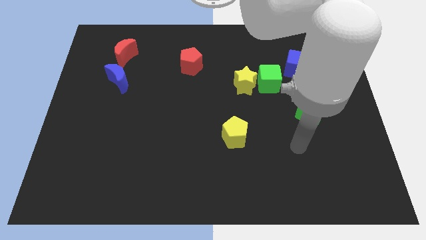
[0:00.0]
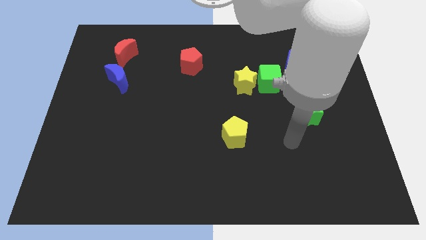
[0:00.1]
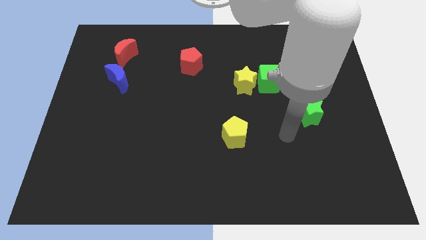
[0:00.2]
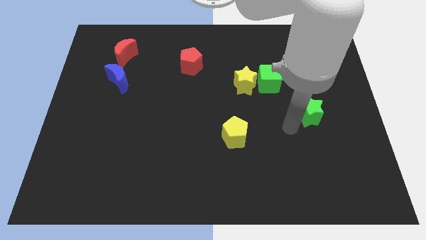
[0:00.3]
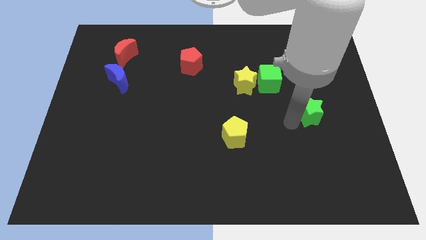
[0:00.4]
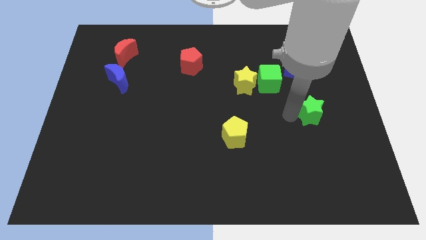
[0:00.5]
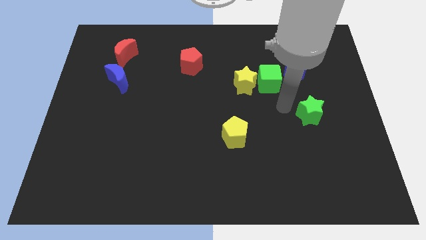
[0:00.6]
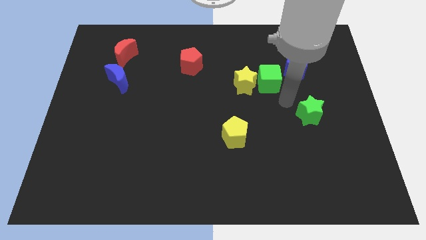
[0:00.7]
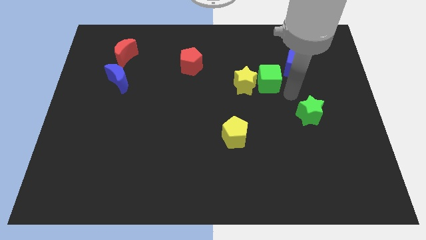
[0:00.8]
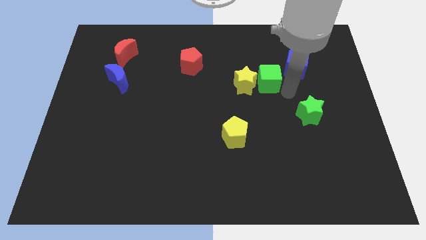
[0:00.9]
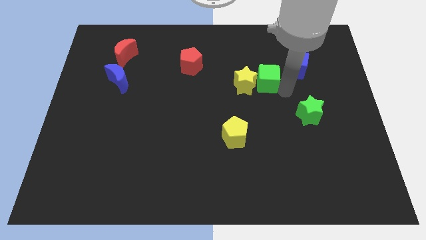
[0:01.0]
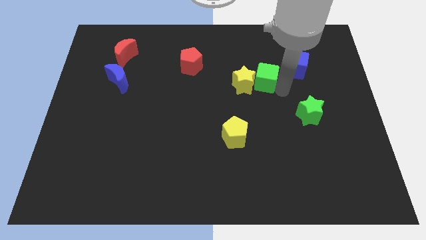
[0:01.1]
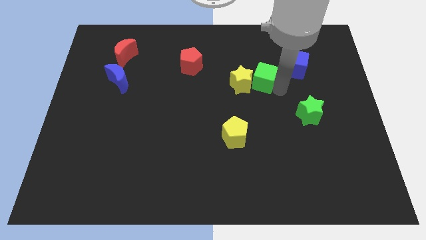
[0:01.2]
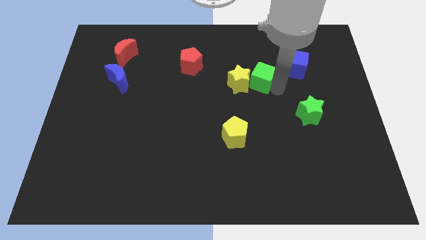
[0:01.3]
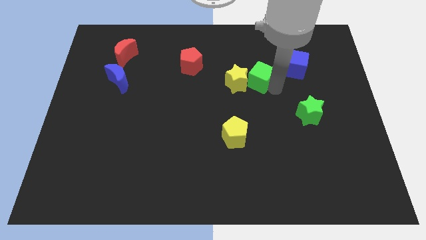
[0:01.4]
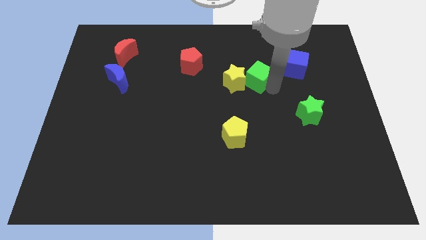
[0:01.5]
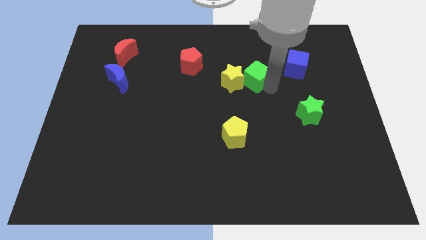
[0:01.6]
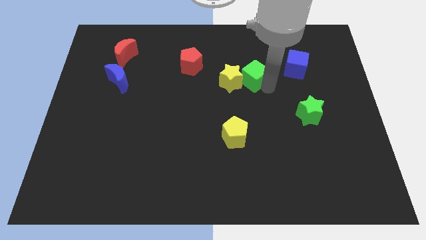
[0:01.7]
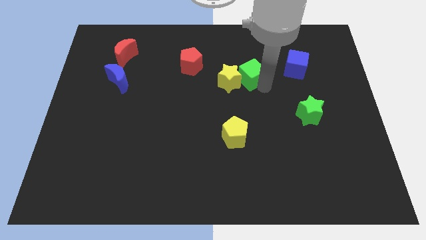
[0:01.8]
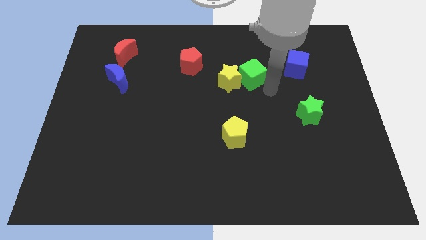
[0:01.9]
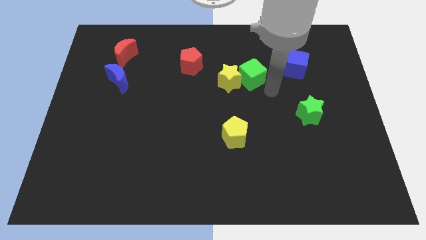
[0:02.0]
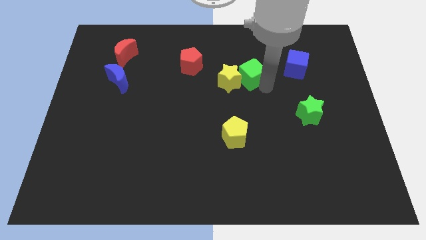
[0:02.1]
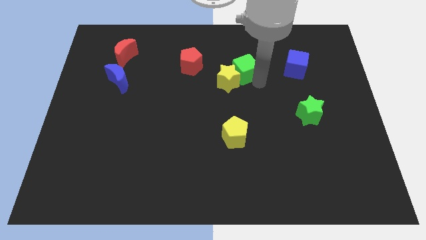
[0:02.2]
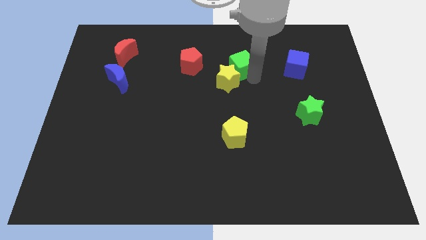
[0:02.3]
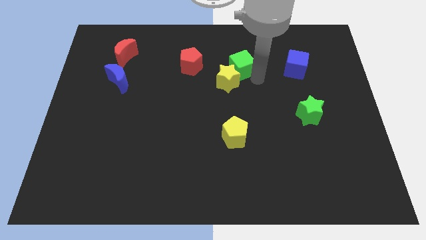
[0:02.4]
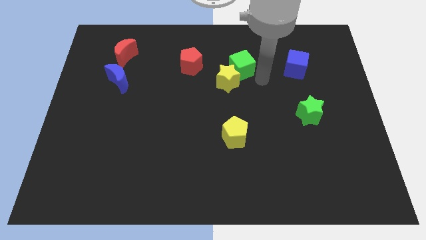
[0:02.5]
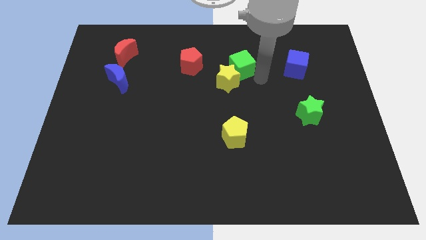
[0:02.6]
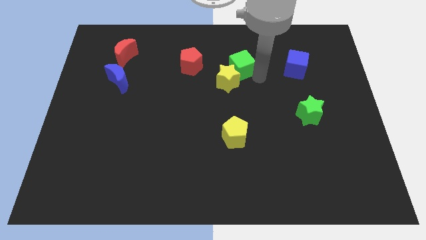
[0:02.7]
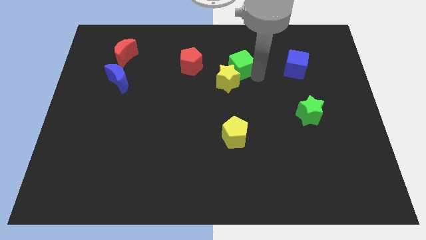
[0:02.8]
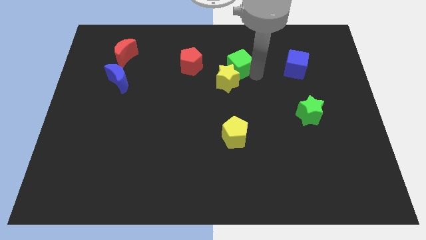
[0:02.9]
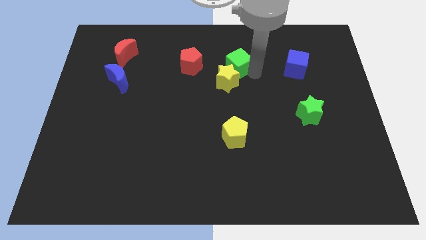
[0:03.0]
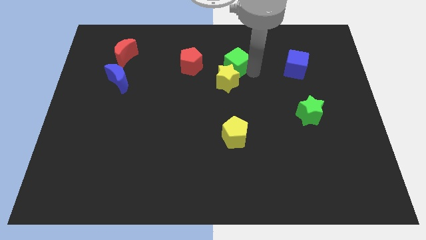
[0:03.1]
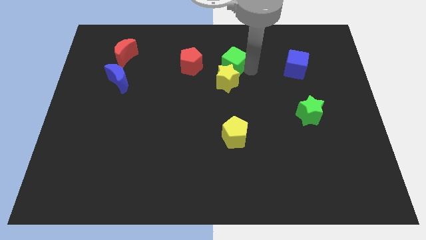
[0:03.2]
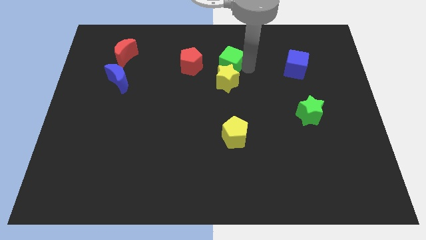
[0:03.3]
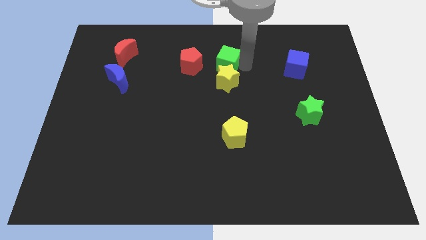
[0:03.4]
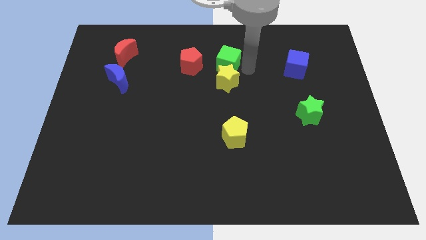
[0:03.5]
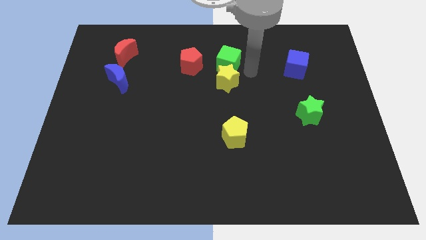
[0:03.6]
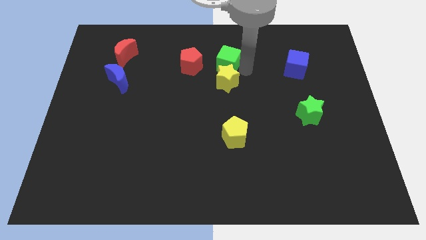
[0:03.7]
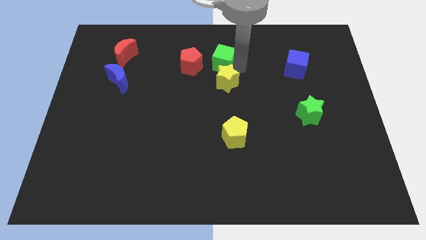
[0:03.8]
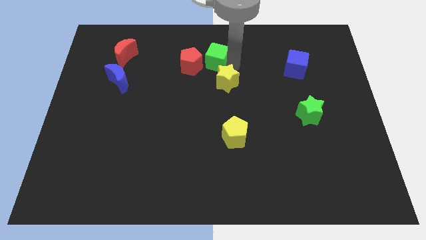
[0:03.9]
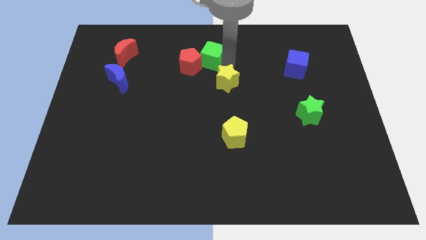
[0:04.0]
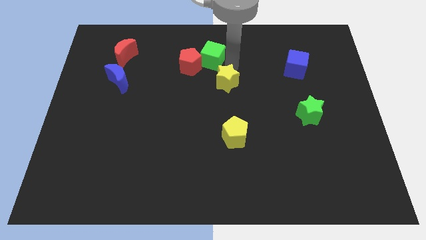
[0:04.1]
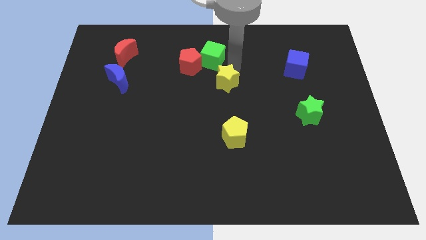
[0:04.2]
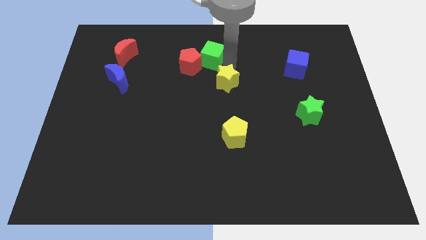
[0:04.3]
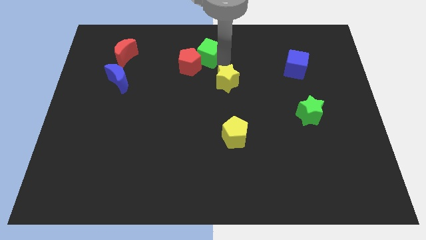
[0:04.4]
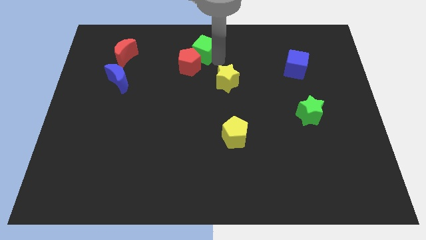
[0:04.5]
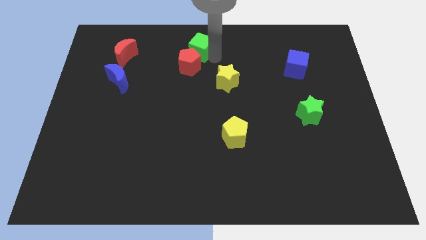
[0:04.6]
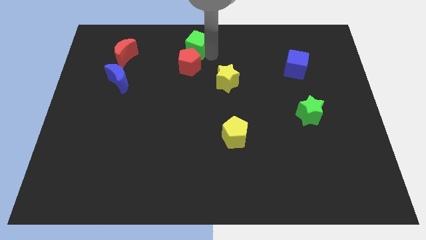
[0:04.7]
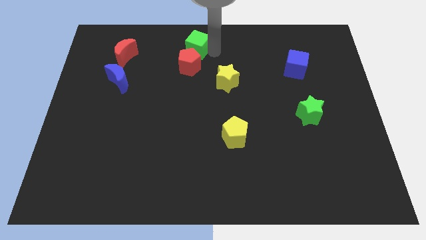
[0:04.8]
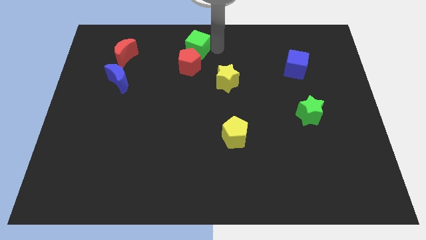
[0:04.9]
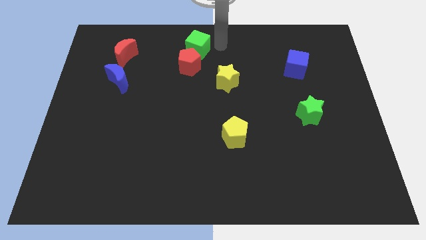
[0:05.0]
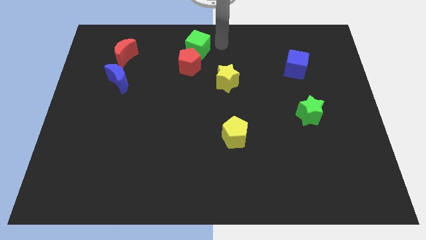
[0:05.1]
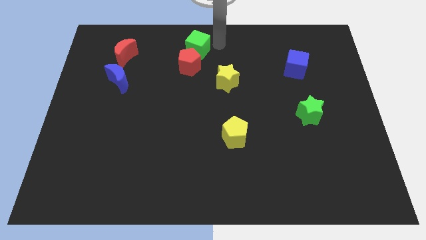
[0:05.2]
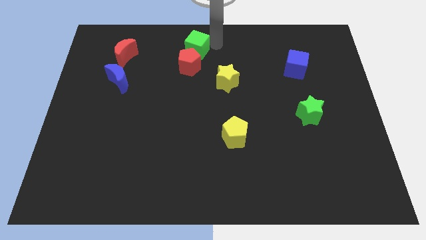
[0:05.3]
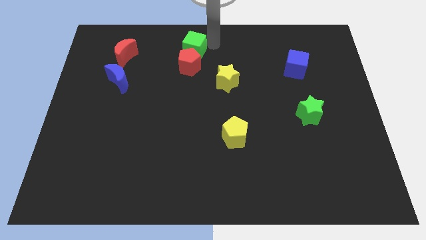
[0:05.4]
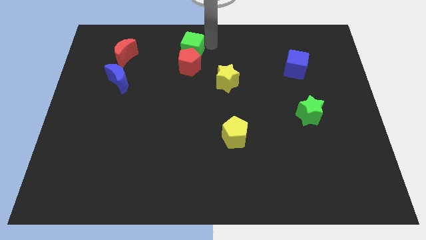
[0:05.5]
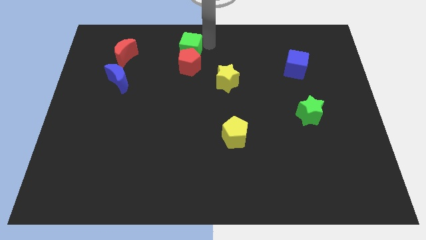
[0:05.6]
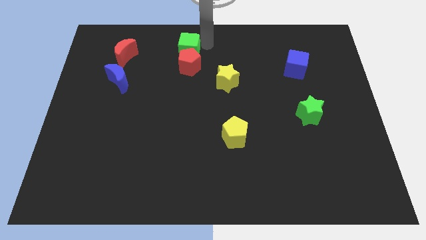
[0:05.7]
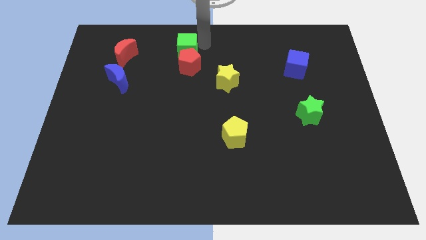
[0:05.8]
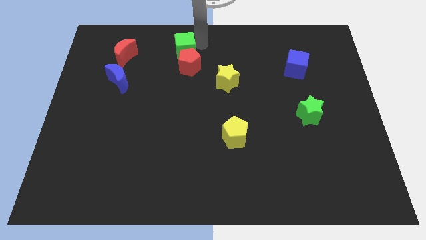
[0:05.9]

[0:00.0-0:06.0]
slide the green cube to the right of the red moon

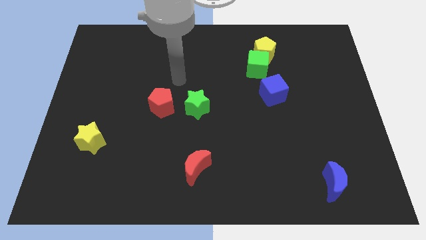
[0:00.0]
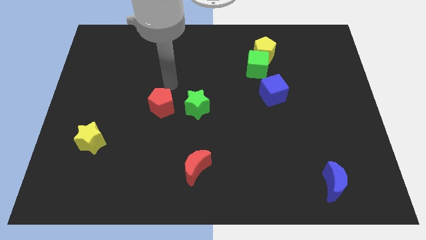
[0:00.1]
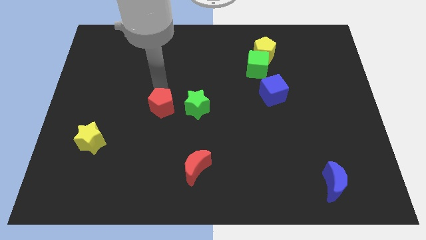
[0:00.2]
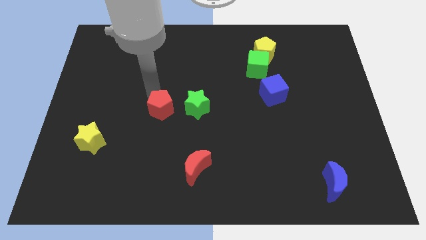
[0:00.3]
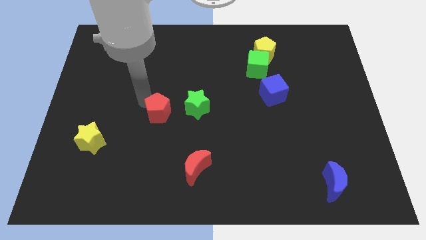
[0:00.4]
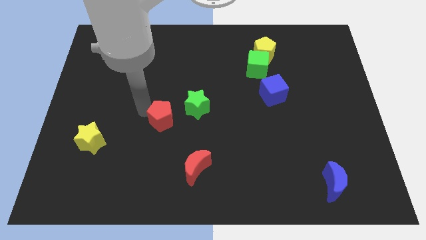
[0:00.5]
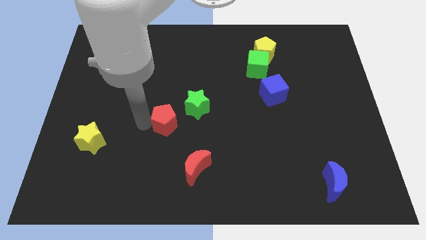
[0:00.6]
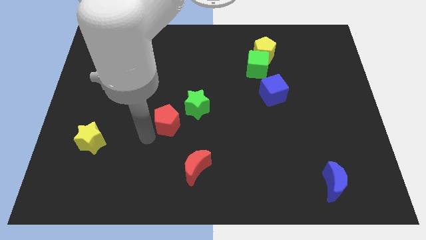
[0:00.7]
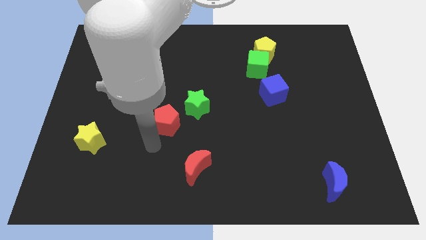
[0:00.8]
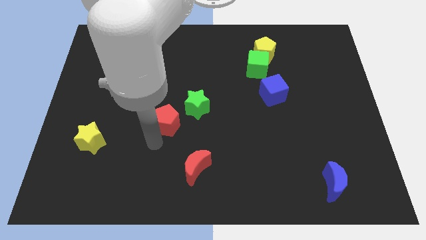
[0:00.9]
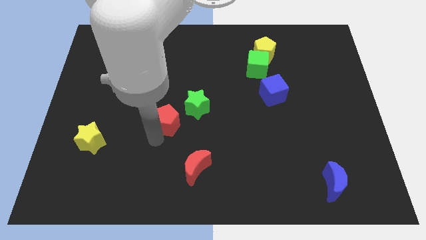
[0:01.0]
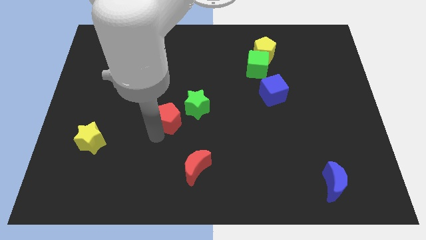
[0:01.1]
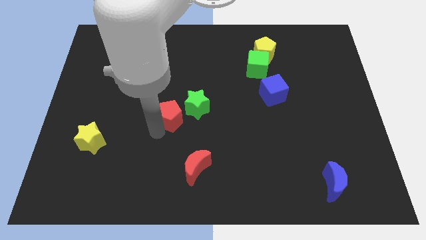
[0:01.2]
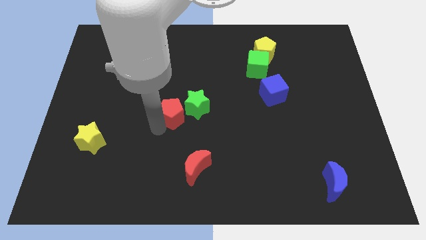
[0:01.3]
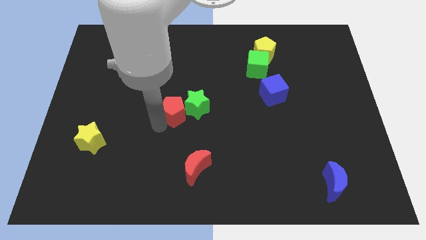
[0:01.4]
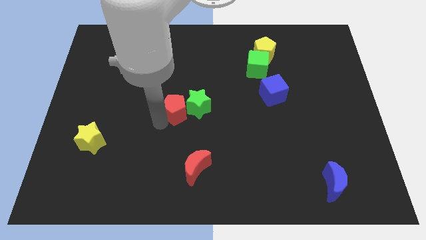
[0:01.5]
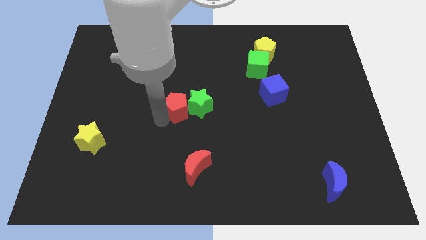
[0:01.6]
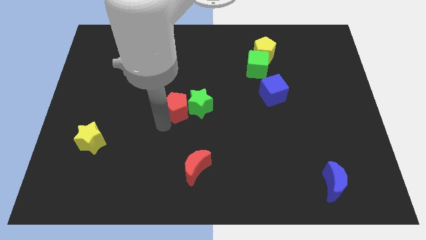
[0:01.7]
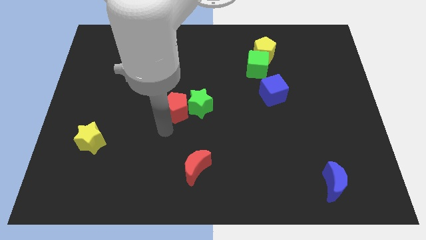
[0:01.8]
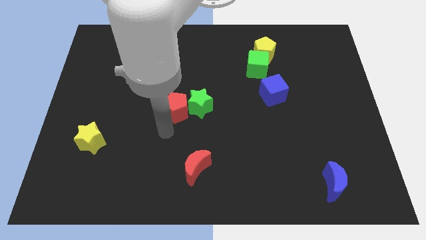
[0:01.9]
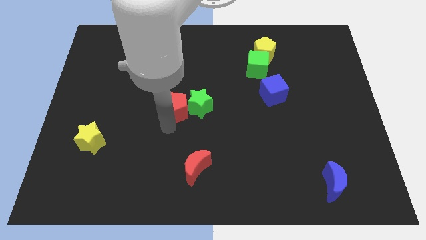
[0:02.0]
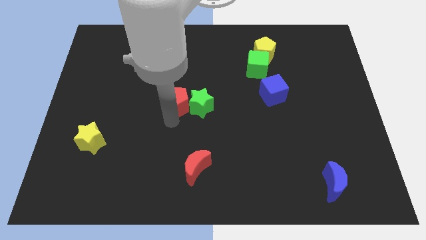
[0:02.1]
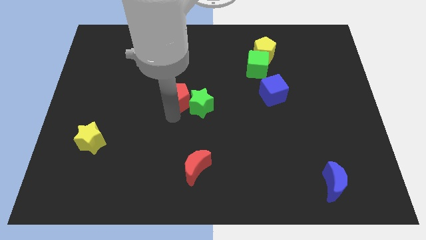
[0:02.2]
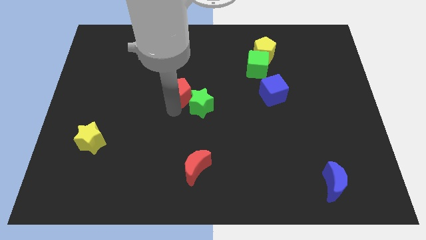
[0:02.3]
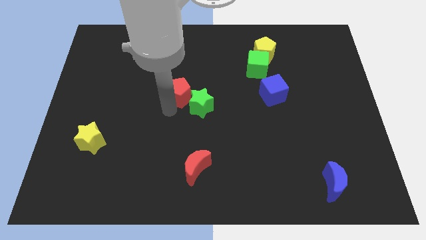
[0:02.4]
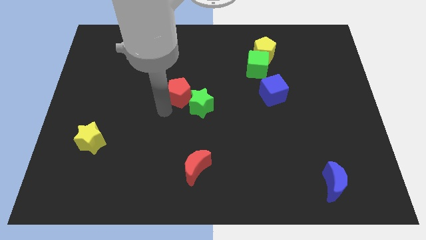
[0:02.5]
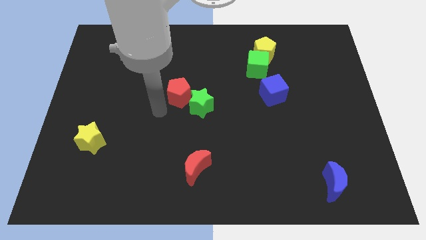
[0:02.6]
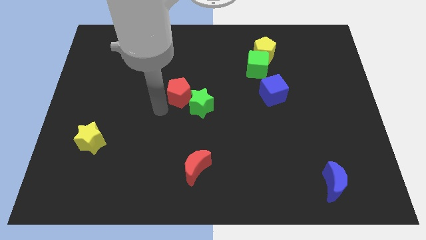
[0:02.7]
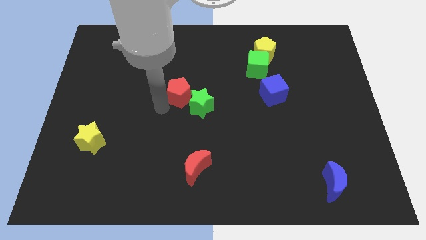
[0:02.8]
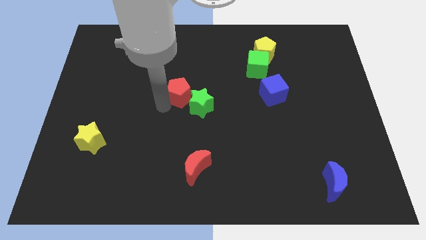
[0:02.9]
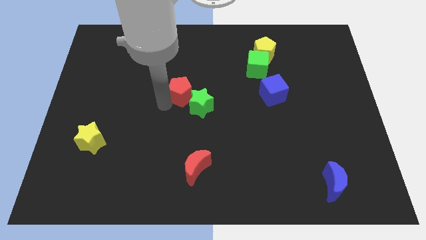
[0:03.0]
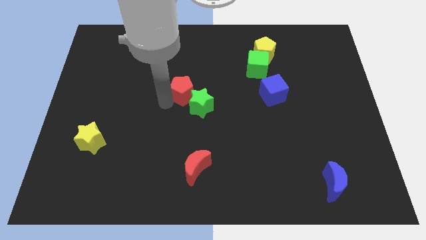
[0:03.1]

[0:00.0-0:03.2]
push the red pentagon to the top side of the green star
